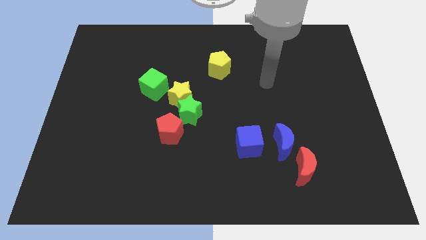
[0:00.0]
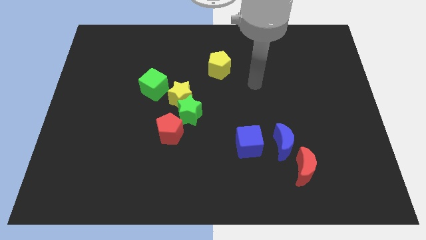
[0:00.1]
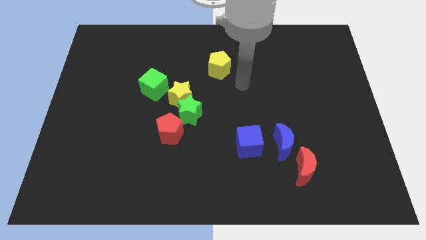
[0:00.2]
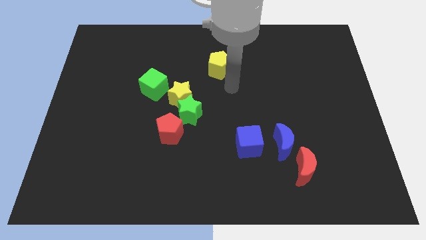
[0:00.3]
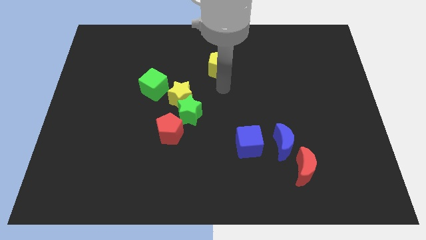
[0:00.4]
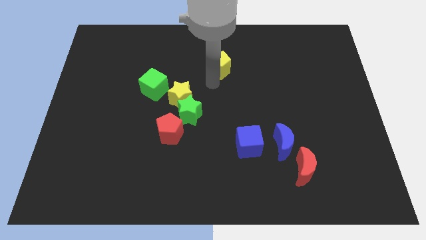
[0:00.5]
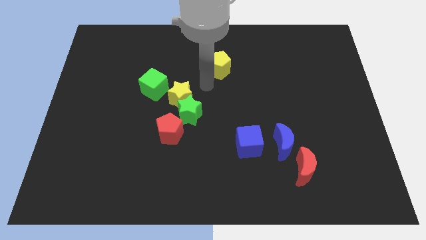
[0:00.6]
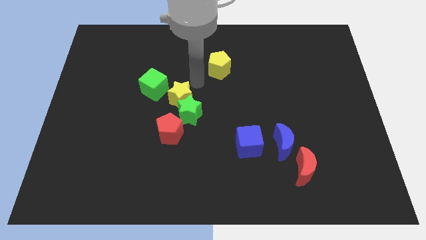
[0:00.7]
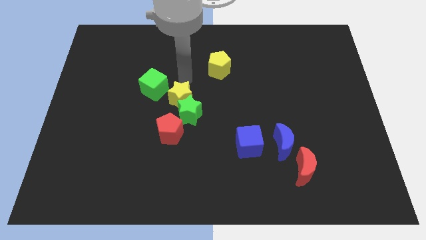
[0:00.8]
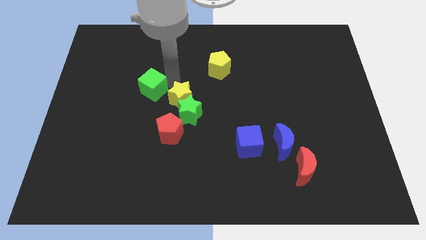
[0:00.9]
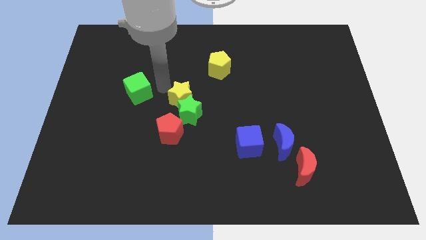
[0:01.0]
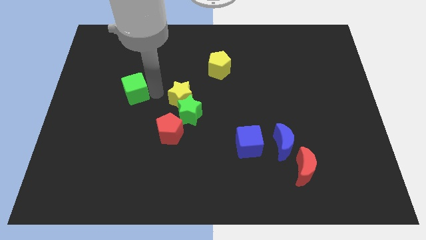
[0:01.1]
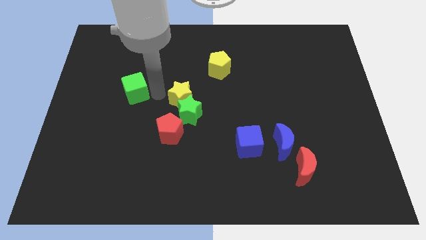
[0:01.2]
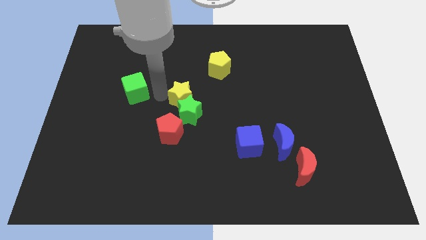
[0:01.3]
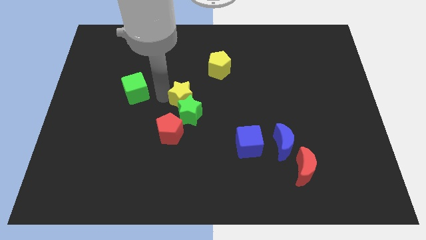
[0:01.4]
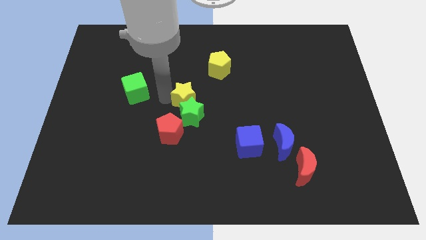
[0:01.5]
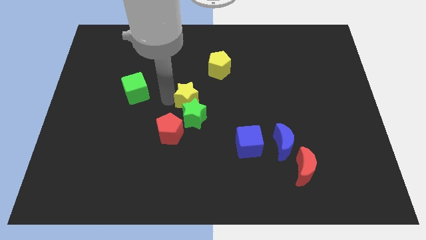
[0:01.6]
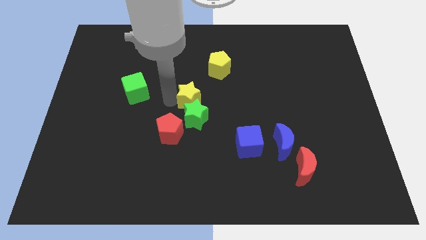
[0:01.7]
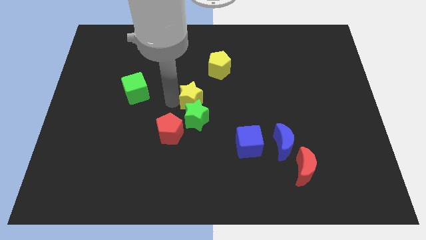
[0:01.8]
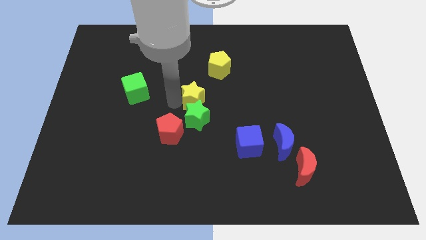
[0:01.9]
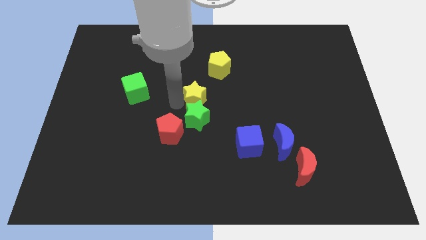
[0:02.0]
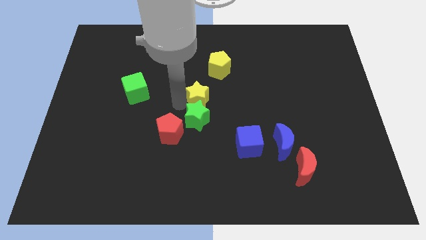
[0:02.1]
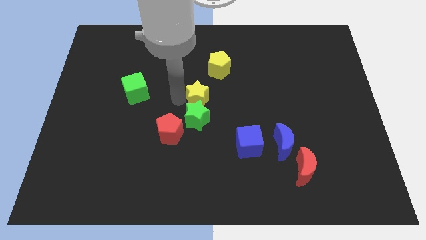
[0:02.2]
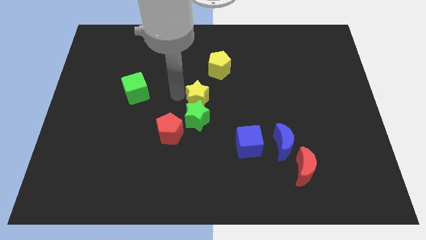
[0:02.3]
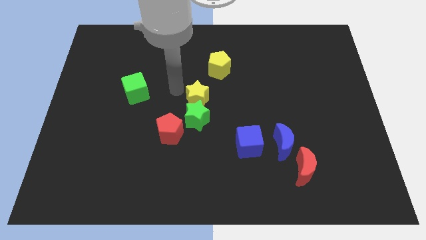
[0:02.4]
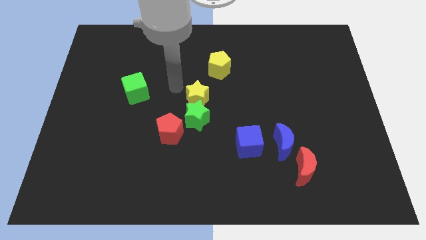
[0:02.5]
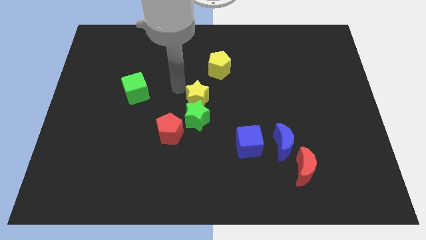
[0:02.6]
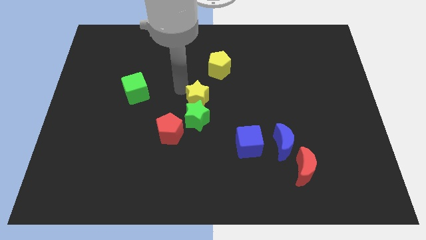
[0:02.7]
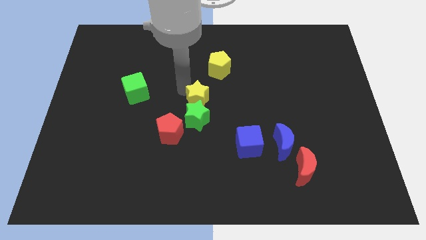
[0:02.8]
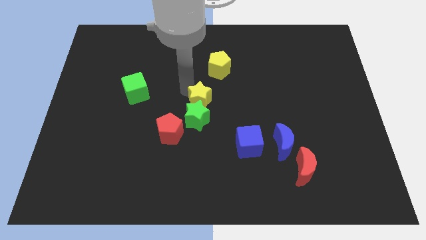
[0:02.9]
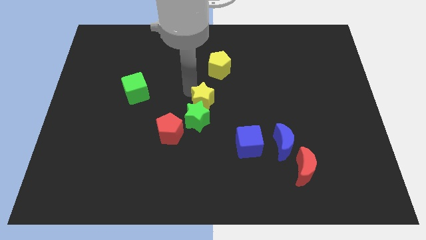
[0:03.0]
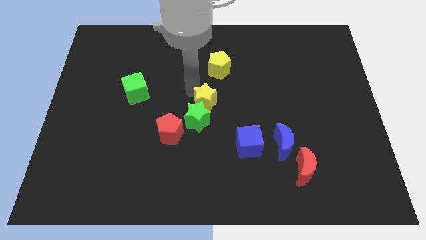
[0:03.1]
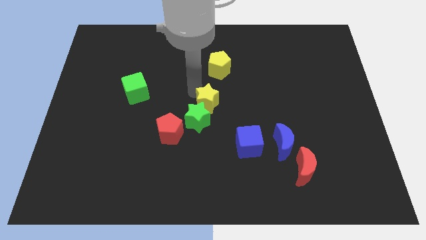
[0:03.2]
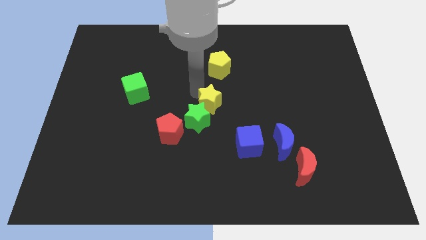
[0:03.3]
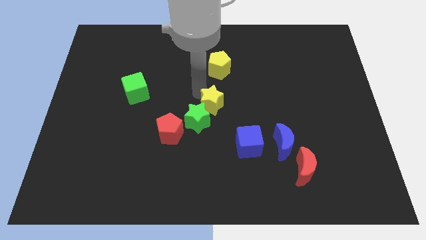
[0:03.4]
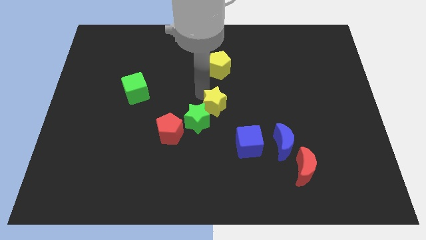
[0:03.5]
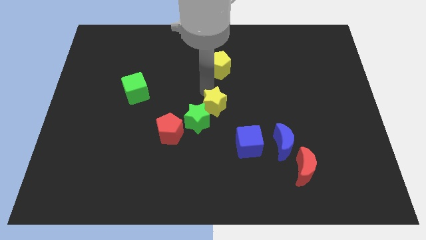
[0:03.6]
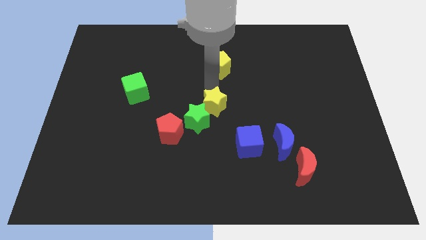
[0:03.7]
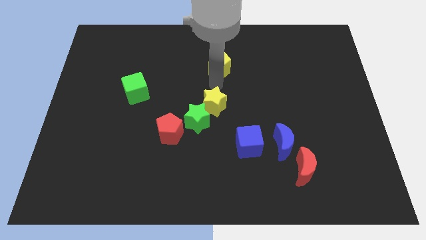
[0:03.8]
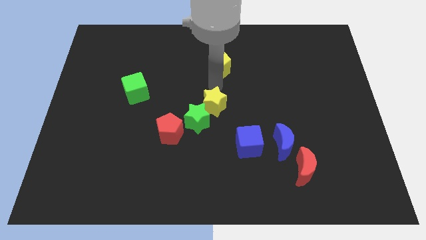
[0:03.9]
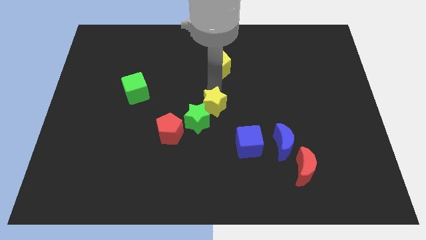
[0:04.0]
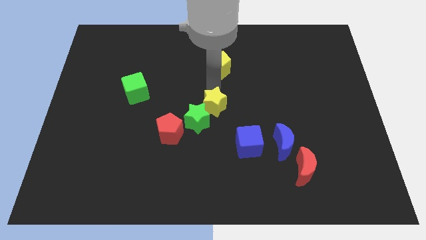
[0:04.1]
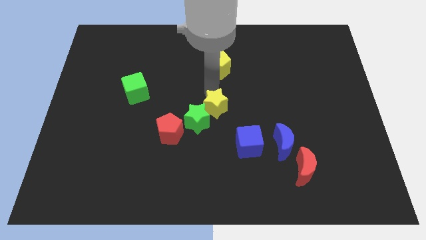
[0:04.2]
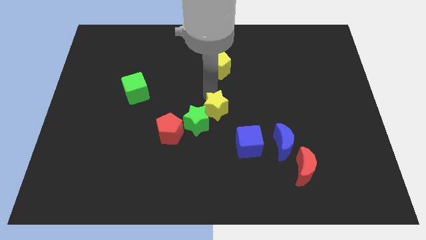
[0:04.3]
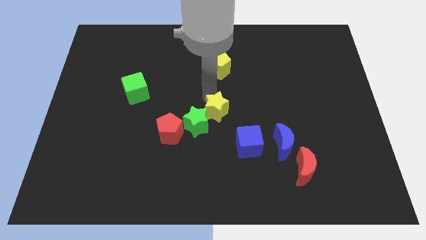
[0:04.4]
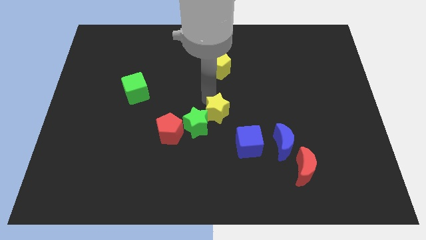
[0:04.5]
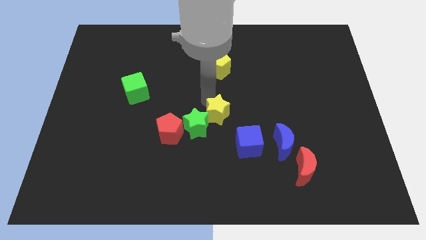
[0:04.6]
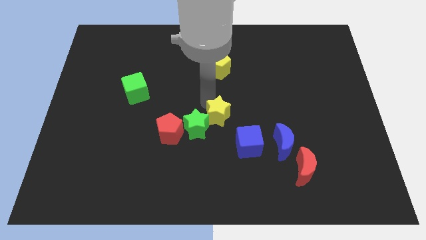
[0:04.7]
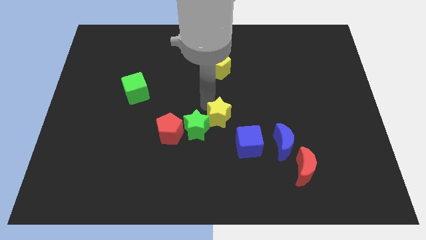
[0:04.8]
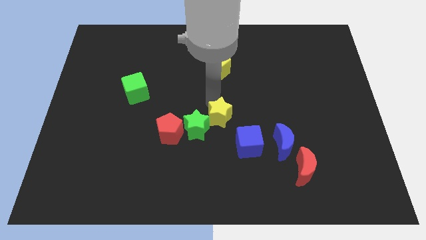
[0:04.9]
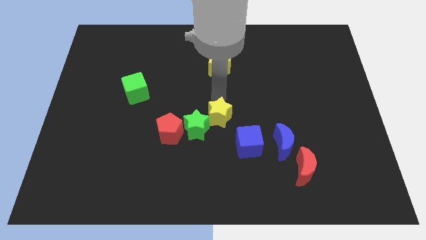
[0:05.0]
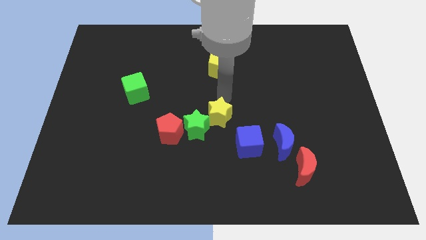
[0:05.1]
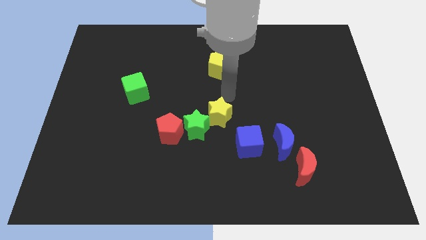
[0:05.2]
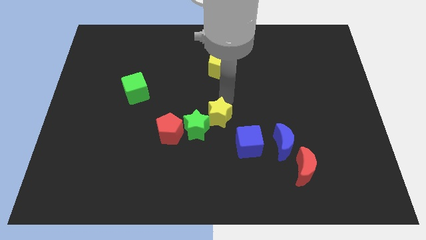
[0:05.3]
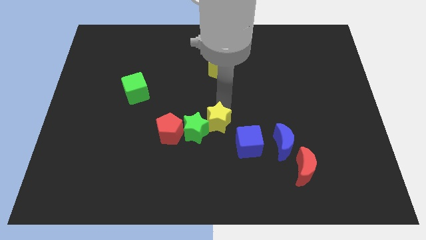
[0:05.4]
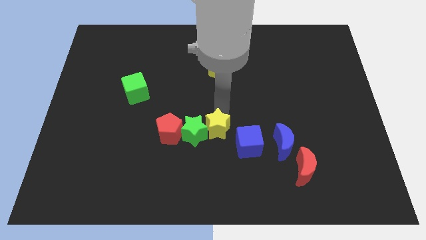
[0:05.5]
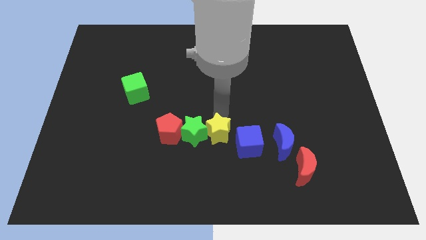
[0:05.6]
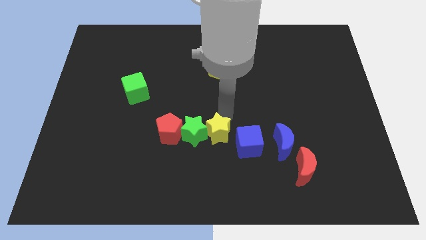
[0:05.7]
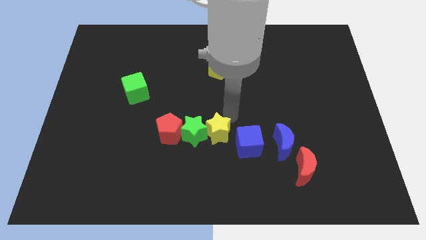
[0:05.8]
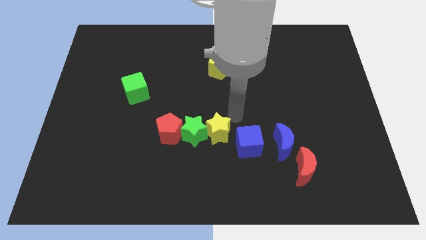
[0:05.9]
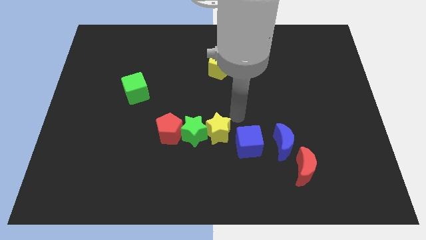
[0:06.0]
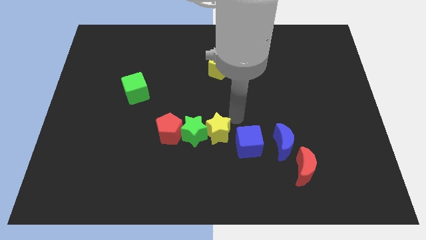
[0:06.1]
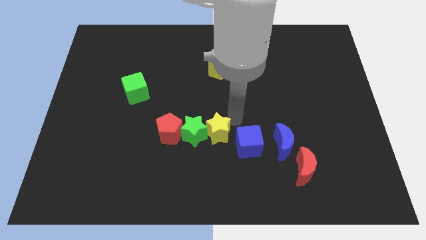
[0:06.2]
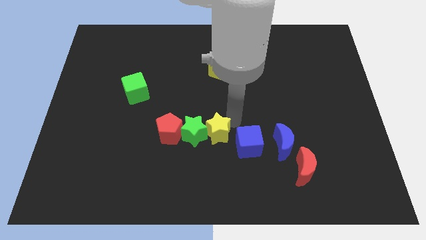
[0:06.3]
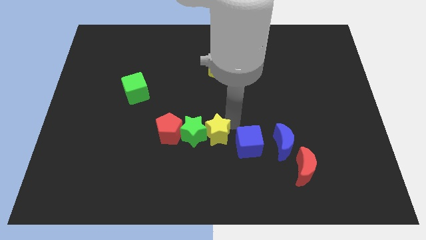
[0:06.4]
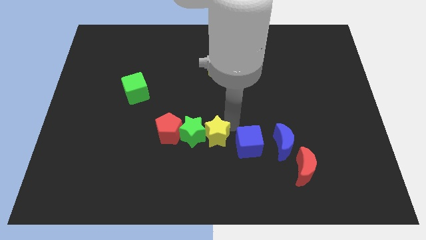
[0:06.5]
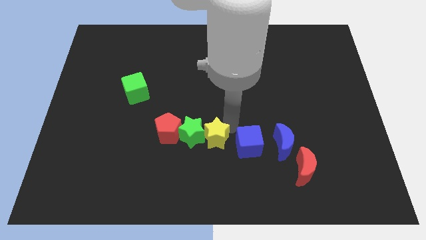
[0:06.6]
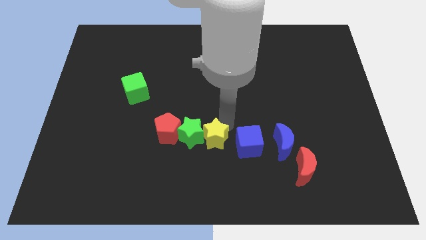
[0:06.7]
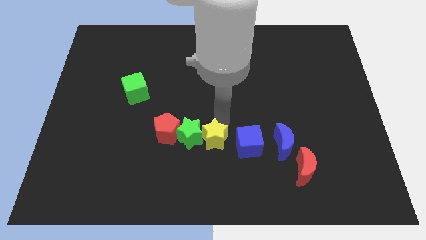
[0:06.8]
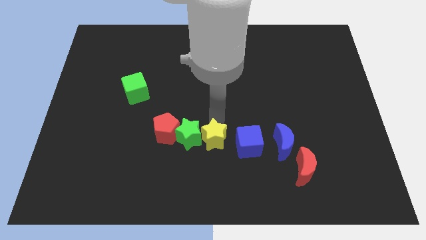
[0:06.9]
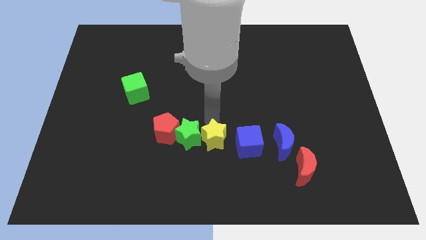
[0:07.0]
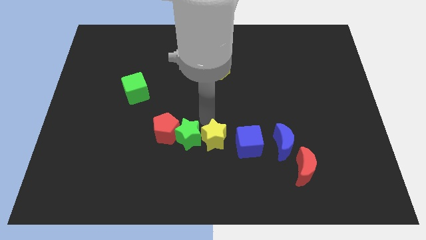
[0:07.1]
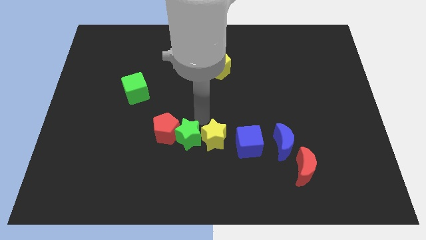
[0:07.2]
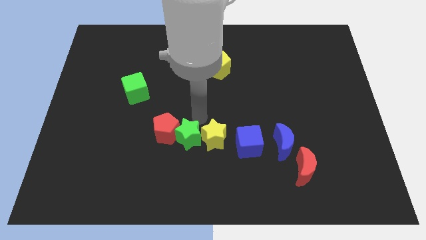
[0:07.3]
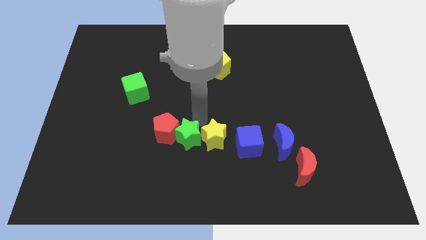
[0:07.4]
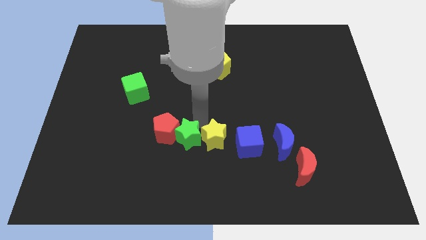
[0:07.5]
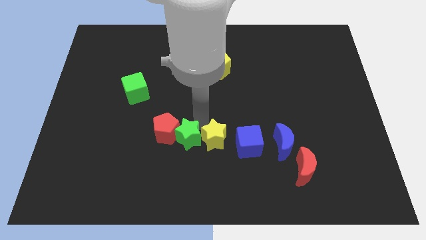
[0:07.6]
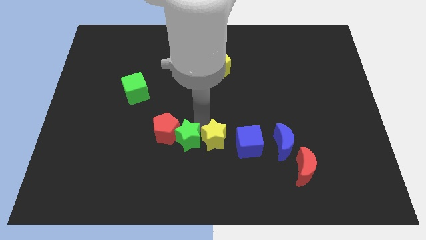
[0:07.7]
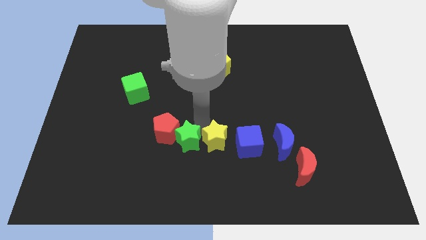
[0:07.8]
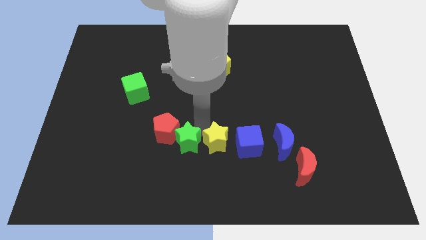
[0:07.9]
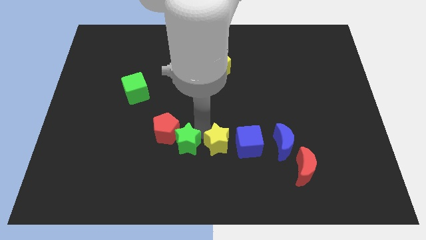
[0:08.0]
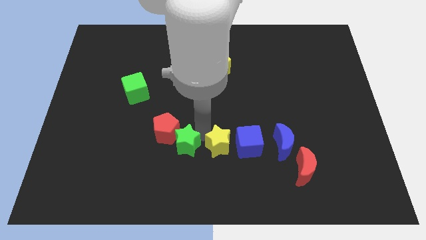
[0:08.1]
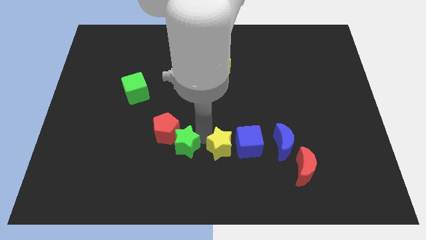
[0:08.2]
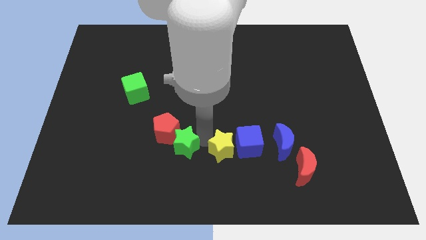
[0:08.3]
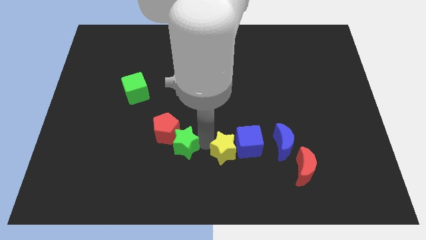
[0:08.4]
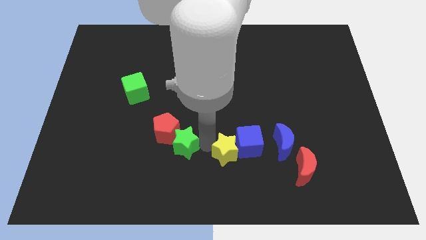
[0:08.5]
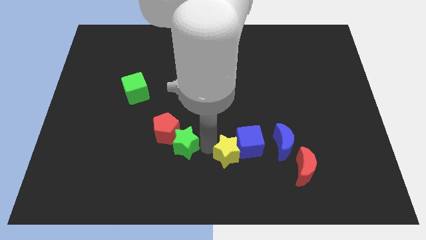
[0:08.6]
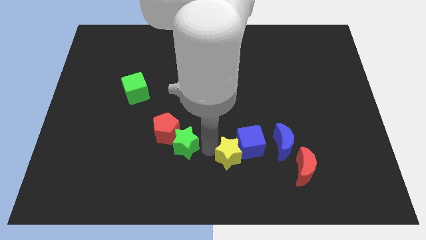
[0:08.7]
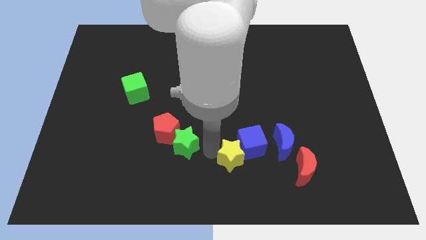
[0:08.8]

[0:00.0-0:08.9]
move the yellow star just left of the red moon
